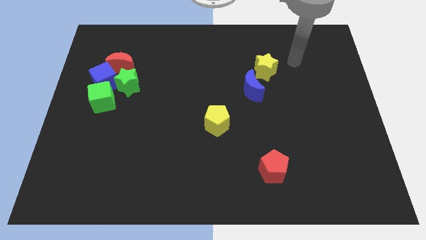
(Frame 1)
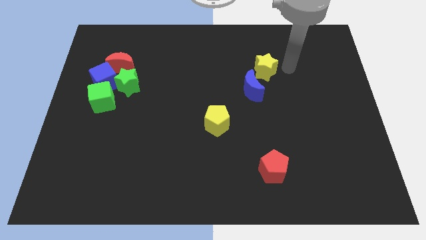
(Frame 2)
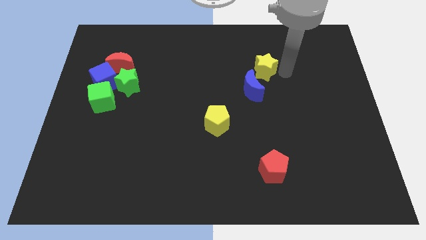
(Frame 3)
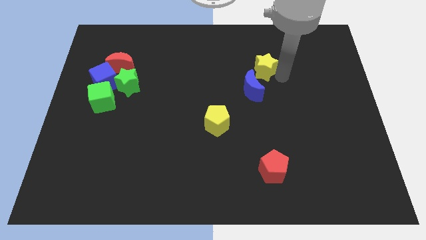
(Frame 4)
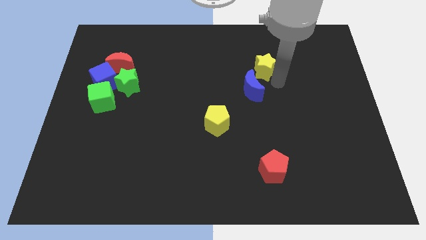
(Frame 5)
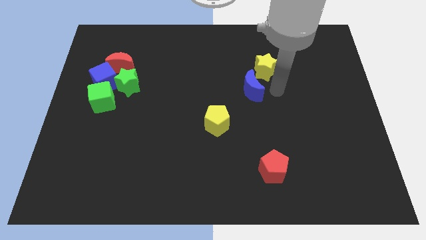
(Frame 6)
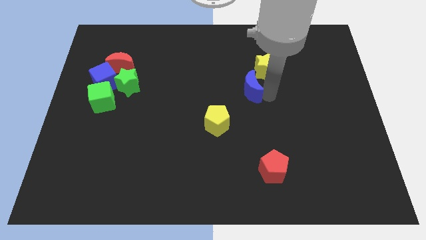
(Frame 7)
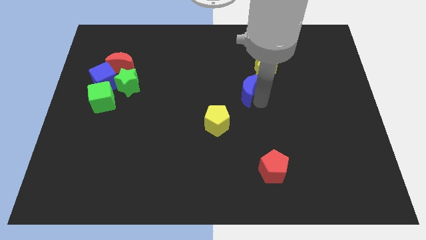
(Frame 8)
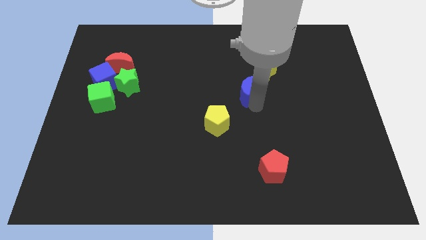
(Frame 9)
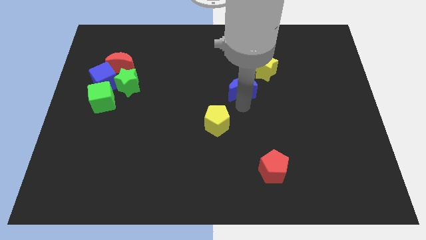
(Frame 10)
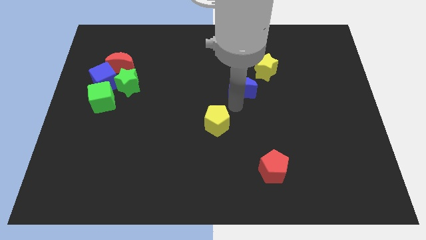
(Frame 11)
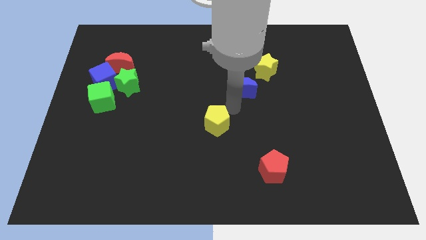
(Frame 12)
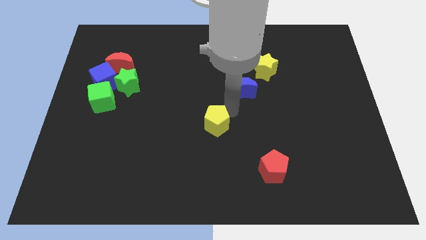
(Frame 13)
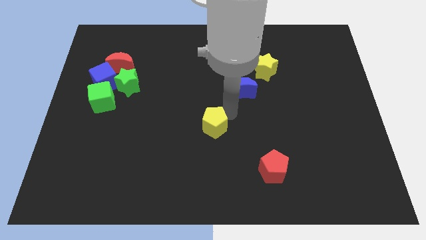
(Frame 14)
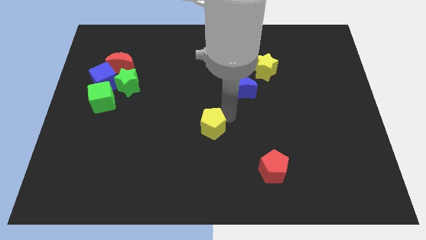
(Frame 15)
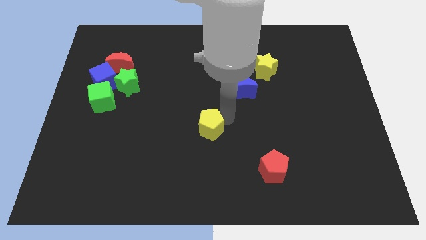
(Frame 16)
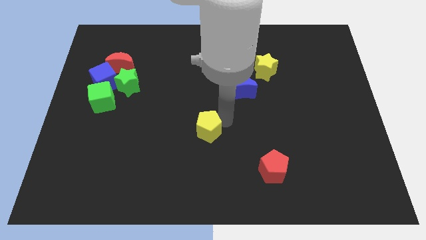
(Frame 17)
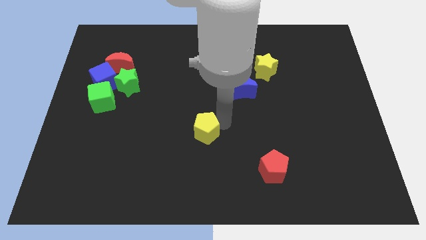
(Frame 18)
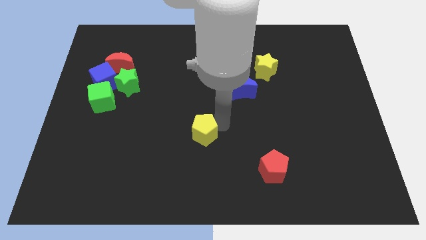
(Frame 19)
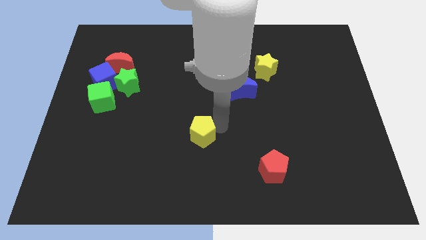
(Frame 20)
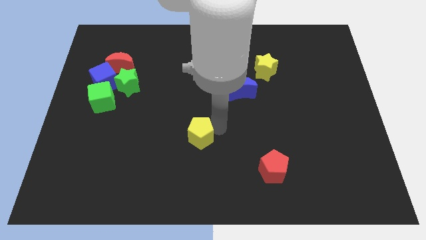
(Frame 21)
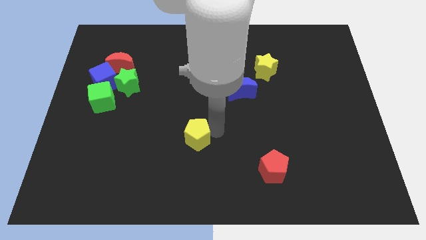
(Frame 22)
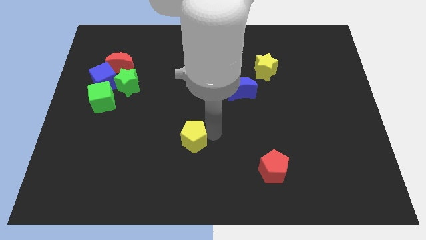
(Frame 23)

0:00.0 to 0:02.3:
slightly move the yellow pentagon downwards and left diagonally

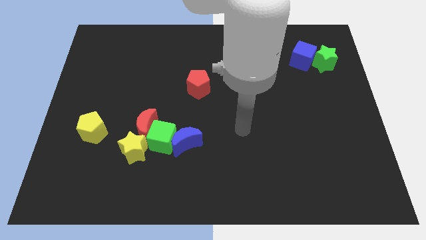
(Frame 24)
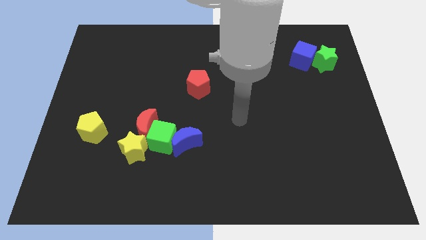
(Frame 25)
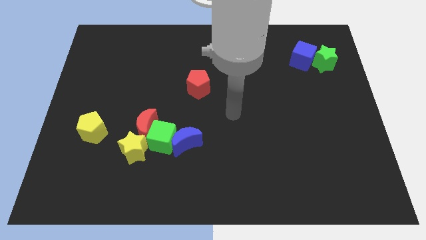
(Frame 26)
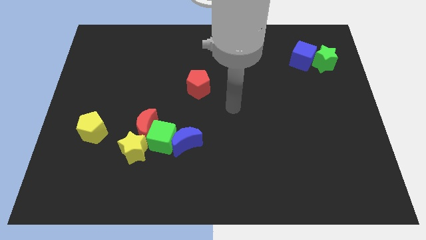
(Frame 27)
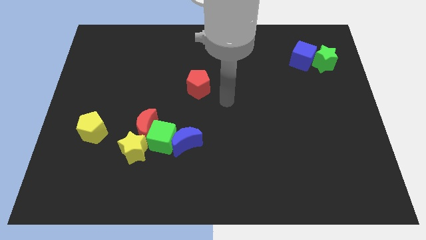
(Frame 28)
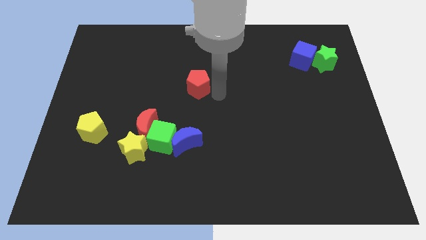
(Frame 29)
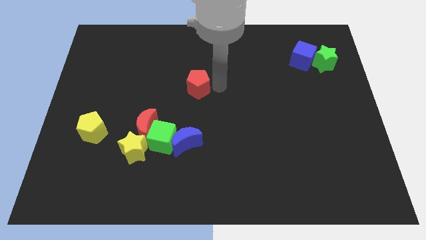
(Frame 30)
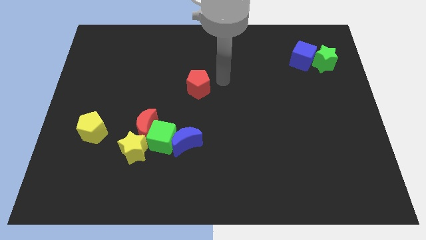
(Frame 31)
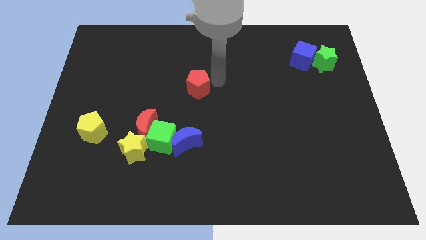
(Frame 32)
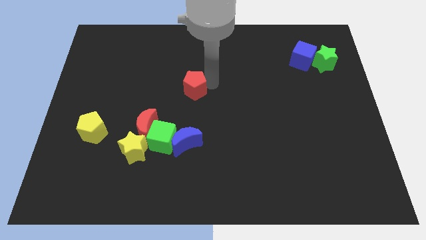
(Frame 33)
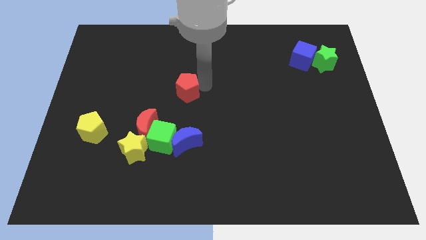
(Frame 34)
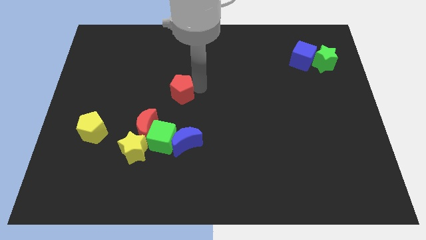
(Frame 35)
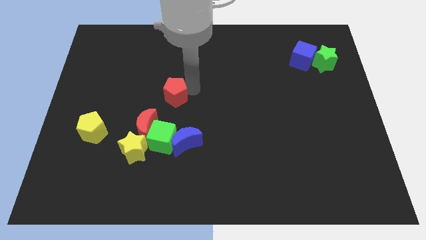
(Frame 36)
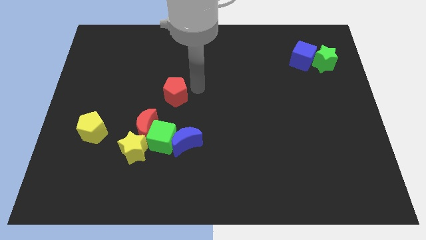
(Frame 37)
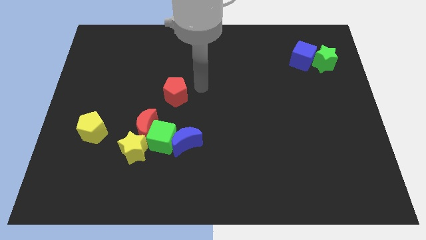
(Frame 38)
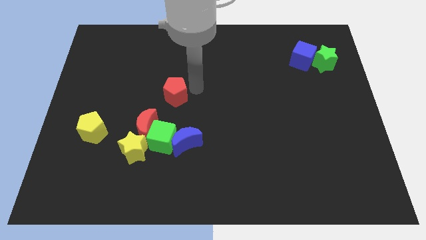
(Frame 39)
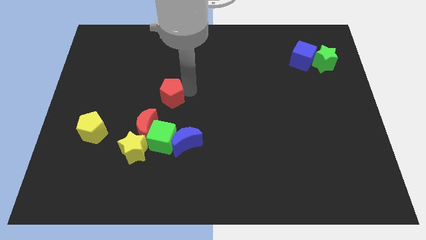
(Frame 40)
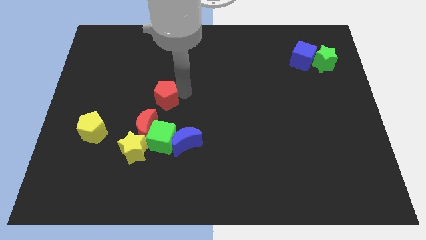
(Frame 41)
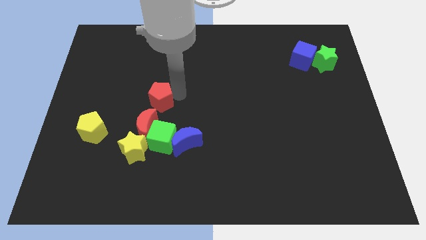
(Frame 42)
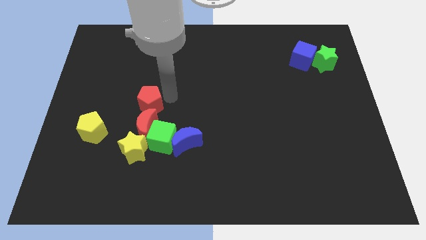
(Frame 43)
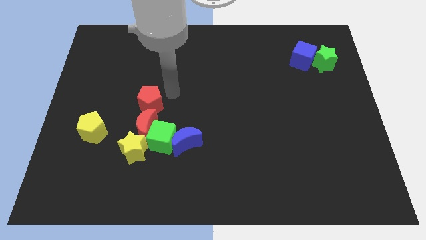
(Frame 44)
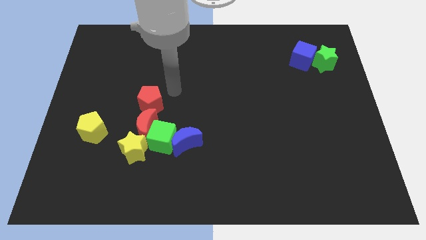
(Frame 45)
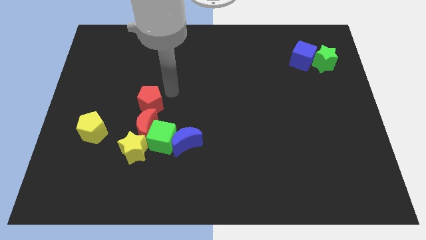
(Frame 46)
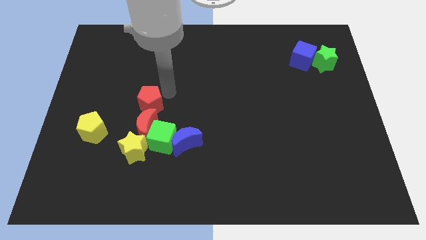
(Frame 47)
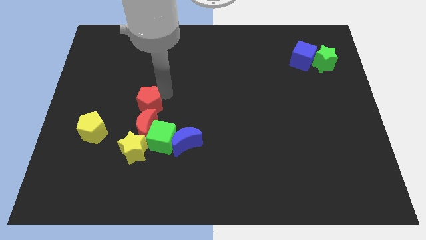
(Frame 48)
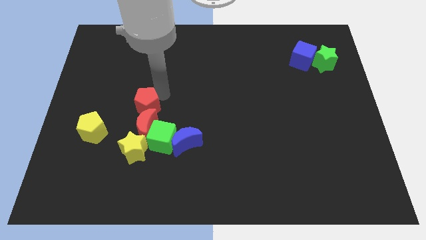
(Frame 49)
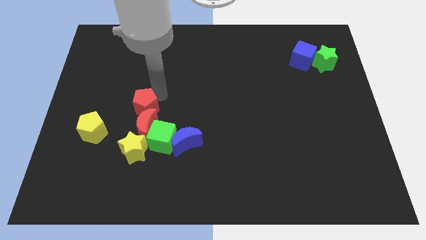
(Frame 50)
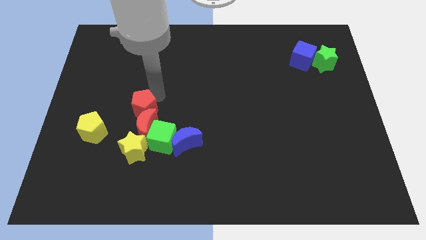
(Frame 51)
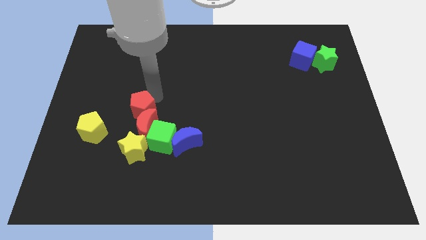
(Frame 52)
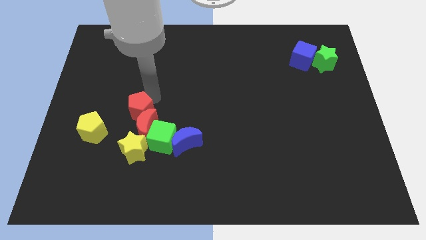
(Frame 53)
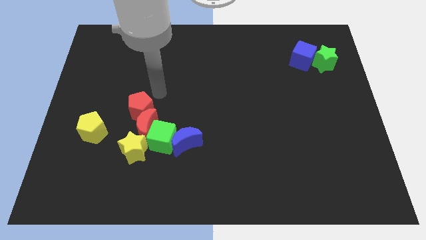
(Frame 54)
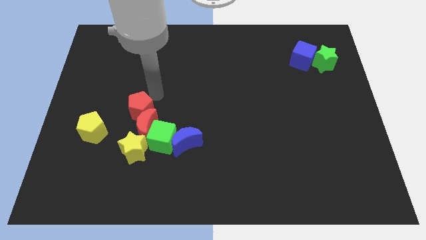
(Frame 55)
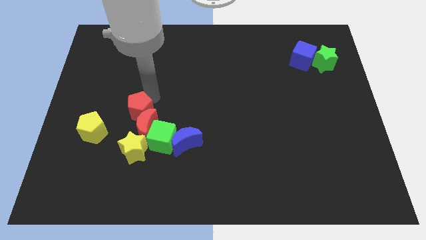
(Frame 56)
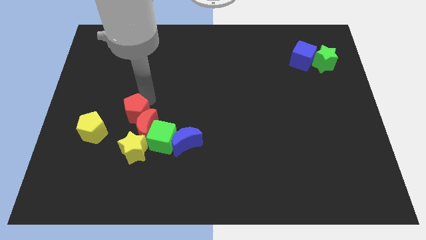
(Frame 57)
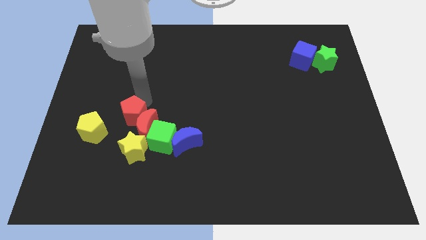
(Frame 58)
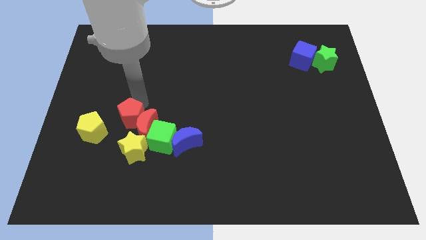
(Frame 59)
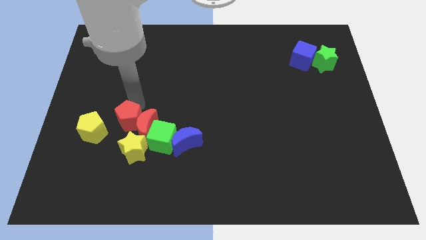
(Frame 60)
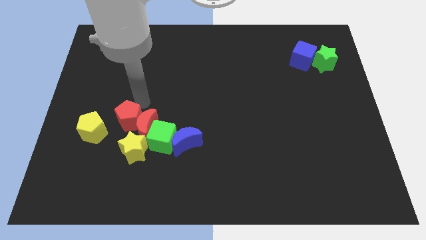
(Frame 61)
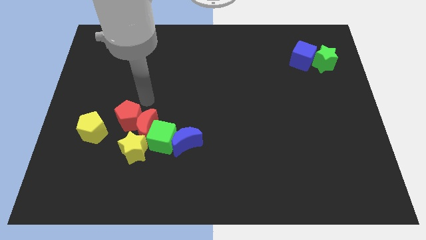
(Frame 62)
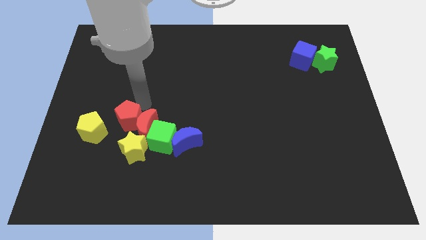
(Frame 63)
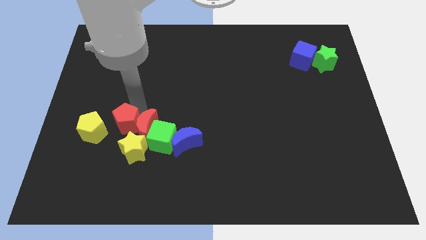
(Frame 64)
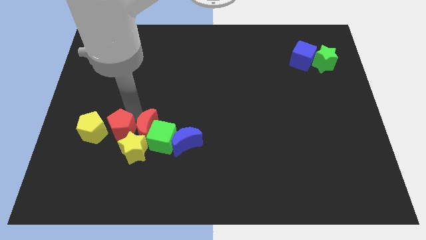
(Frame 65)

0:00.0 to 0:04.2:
move the red pentagon down and to the left

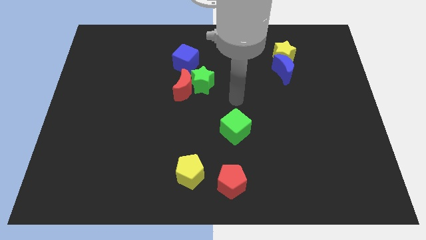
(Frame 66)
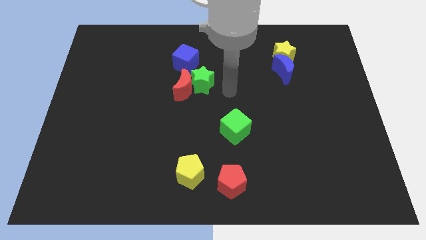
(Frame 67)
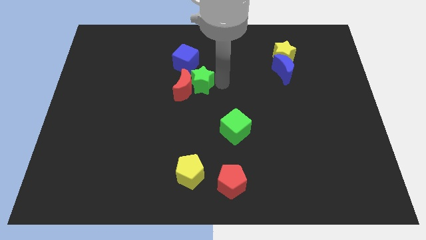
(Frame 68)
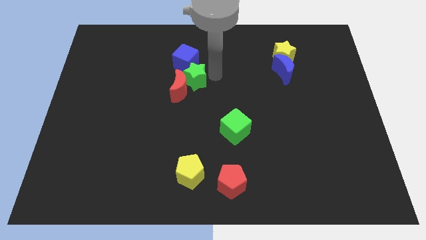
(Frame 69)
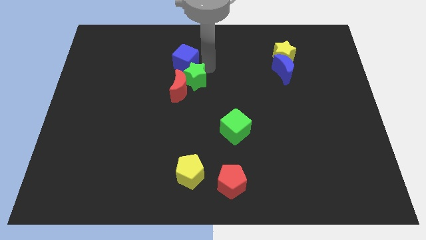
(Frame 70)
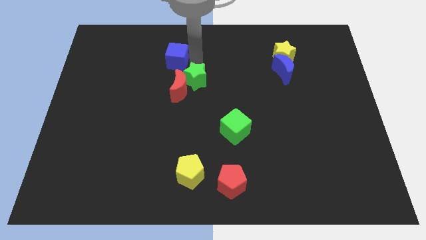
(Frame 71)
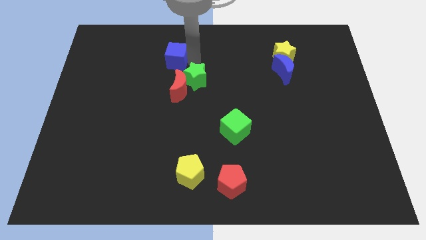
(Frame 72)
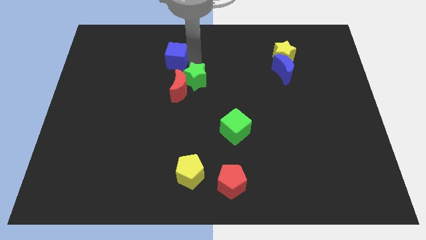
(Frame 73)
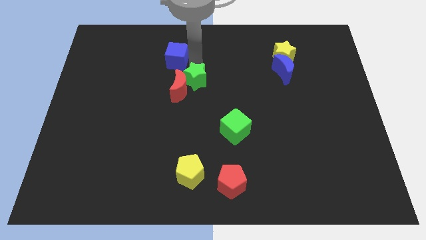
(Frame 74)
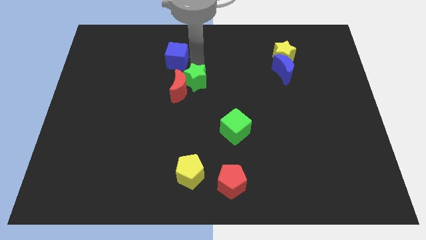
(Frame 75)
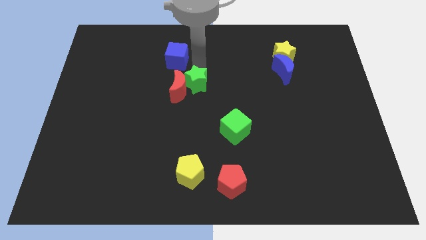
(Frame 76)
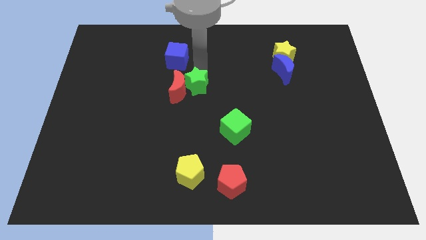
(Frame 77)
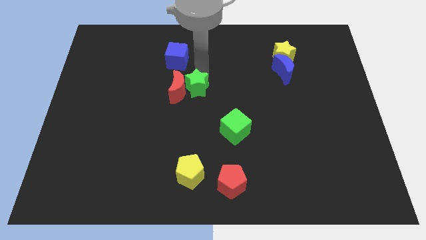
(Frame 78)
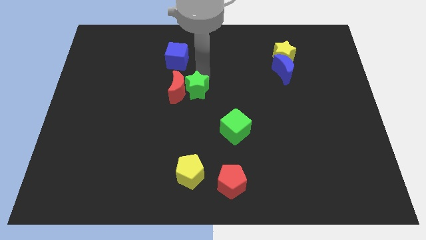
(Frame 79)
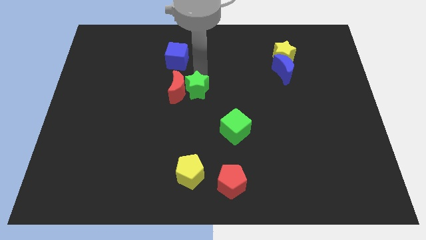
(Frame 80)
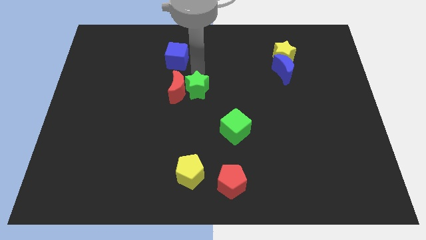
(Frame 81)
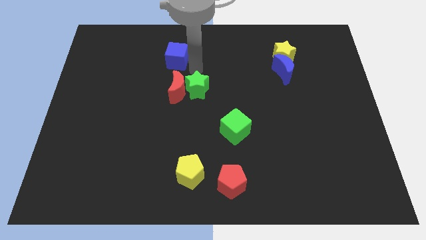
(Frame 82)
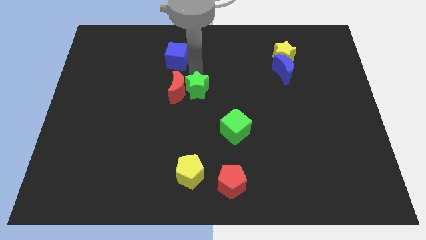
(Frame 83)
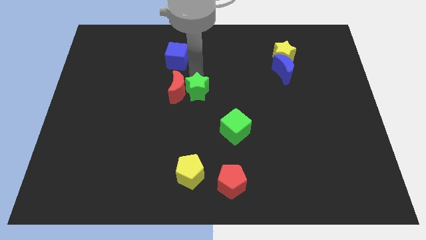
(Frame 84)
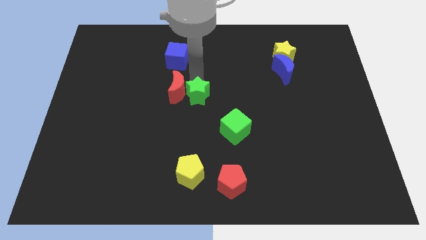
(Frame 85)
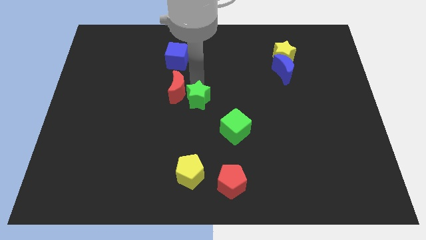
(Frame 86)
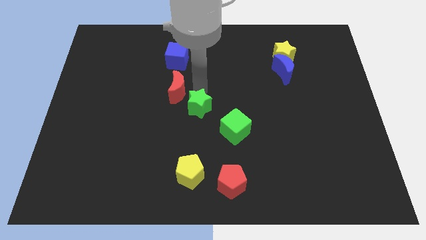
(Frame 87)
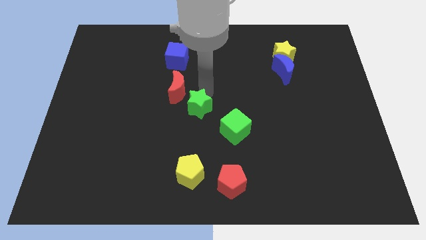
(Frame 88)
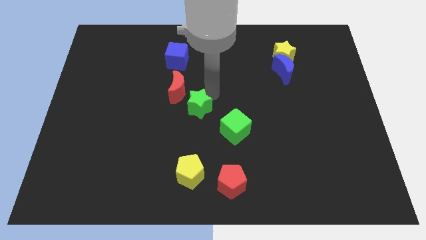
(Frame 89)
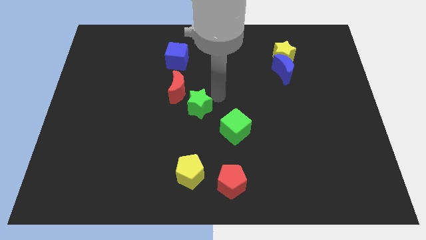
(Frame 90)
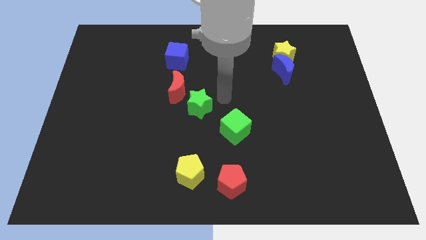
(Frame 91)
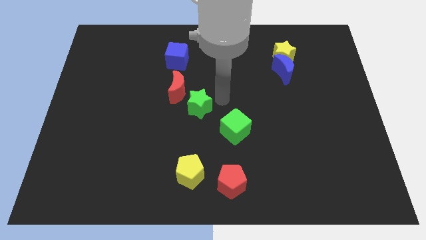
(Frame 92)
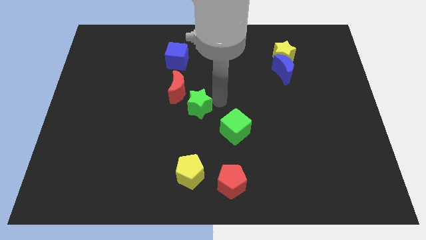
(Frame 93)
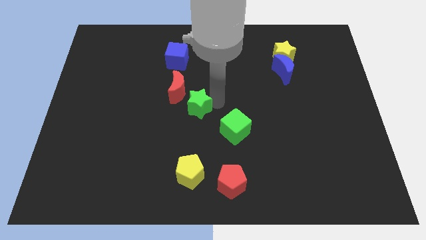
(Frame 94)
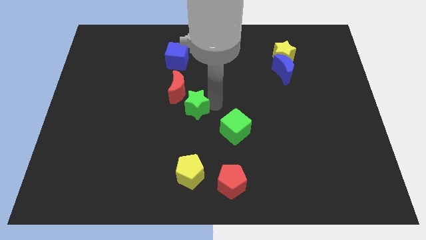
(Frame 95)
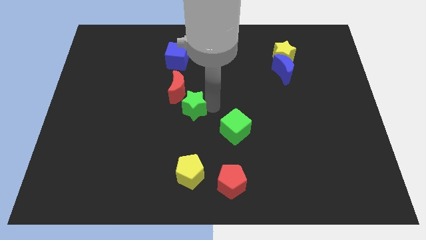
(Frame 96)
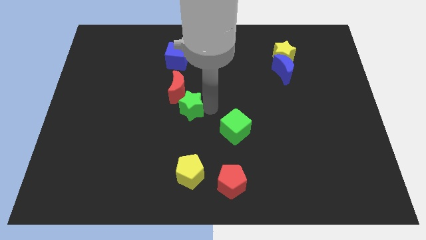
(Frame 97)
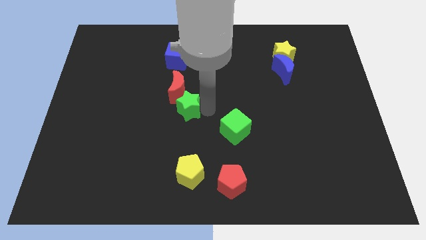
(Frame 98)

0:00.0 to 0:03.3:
slide the green star a little down and to the left diagonally
